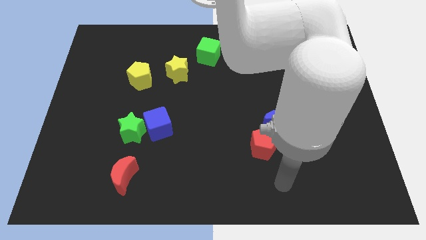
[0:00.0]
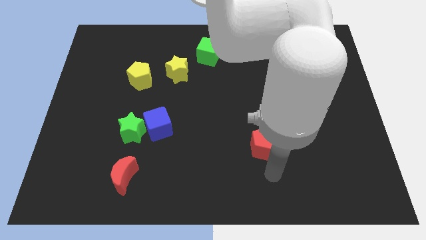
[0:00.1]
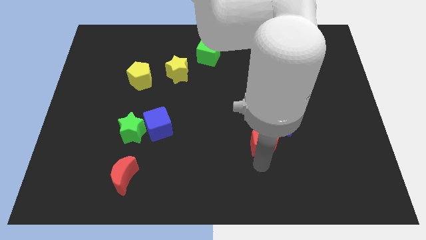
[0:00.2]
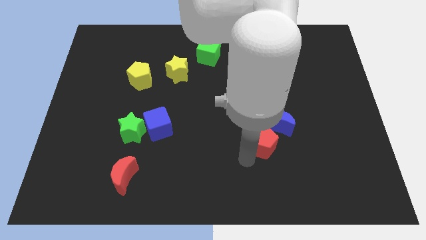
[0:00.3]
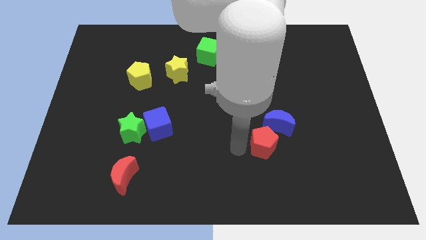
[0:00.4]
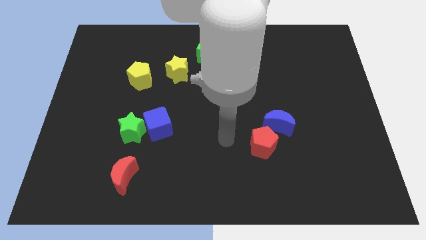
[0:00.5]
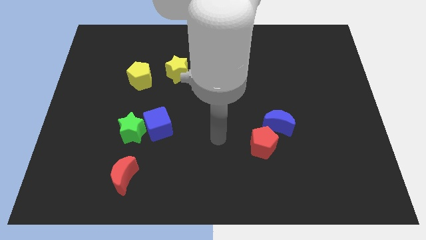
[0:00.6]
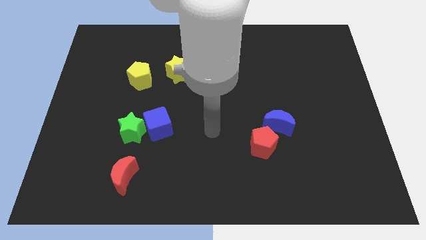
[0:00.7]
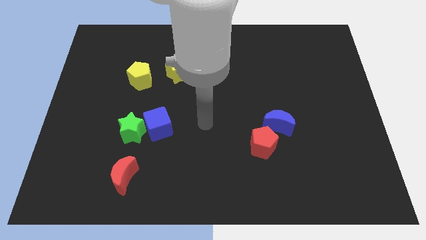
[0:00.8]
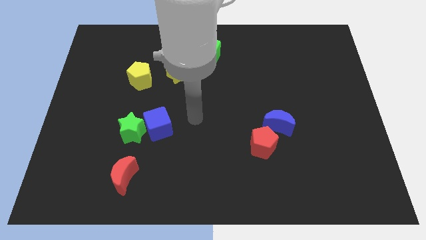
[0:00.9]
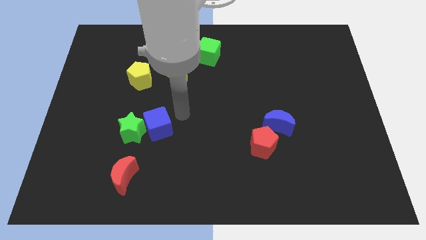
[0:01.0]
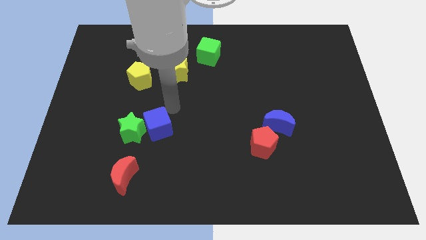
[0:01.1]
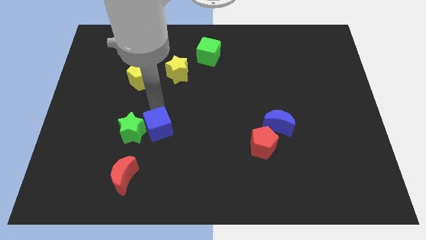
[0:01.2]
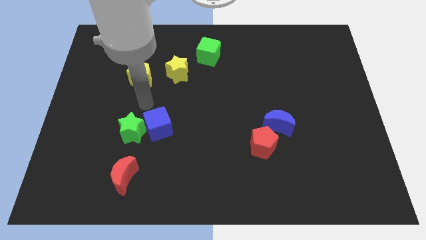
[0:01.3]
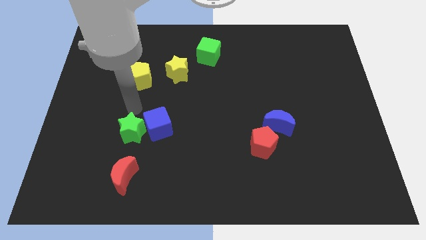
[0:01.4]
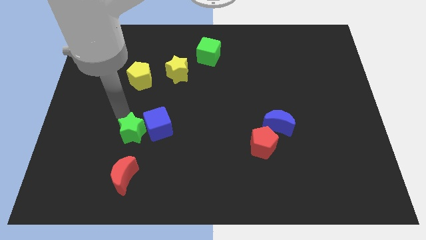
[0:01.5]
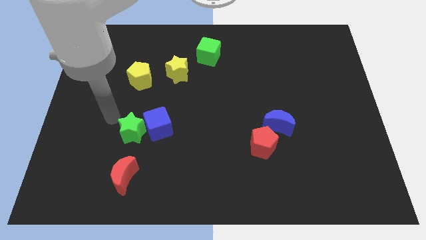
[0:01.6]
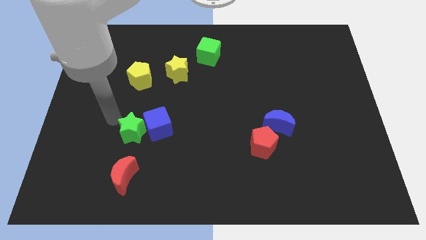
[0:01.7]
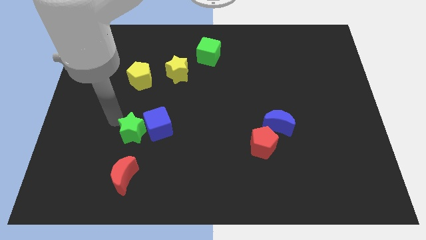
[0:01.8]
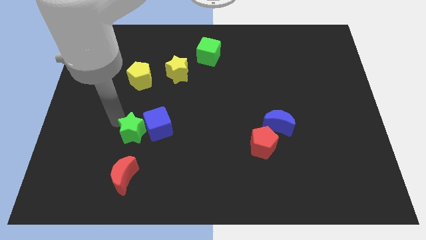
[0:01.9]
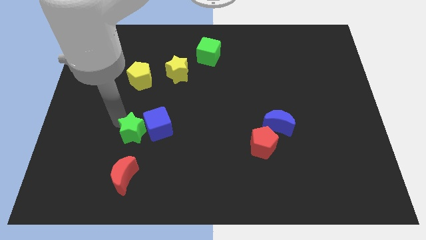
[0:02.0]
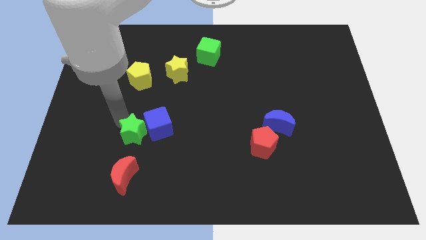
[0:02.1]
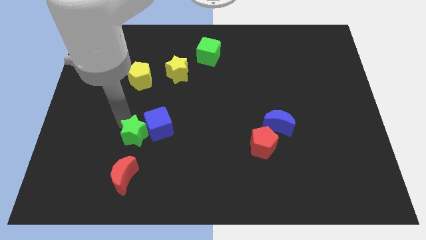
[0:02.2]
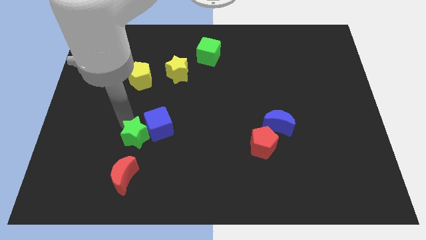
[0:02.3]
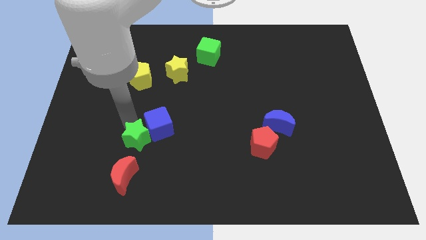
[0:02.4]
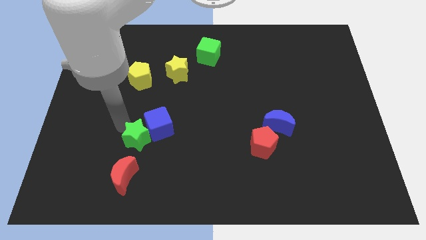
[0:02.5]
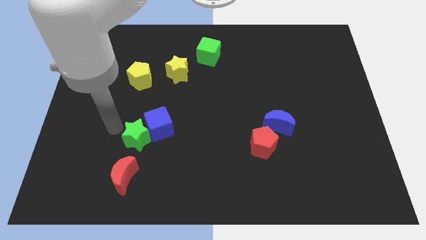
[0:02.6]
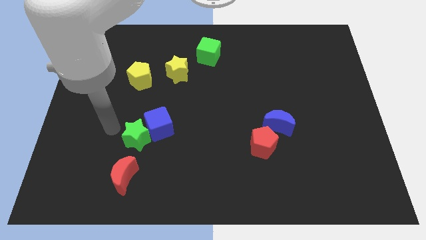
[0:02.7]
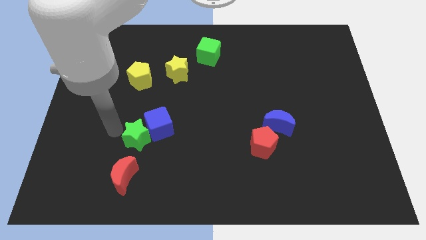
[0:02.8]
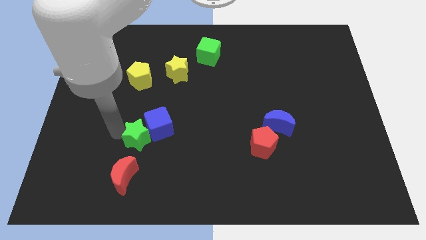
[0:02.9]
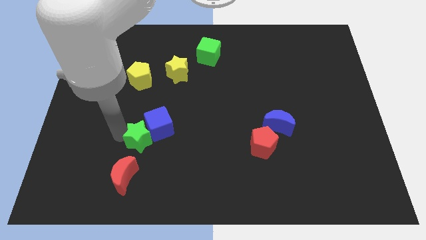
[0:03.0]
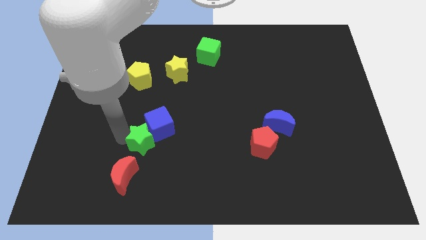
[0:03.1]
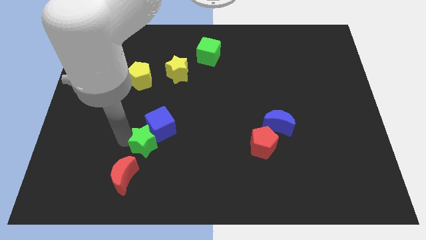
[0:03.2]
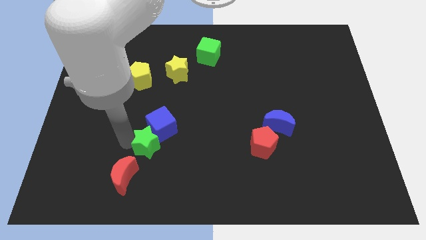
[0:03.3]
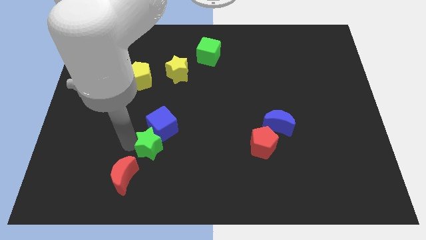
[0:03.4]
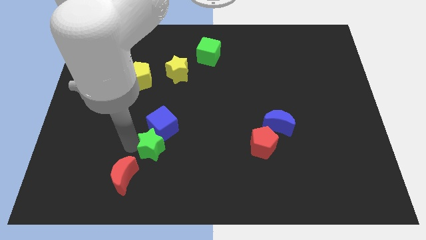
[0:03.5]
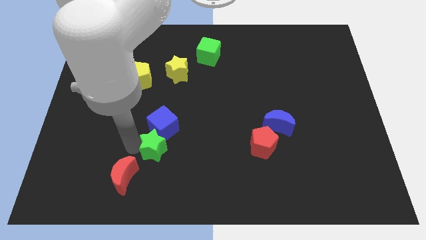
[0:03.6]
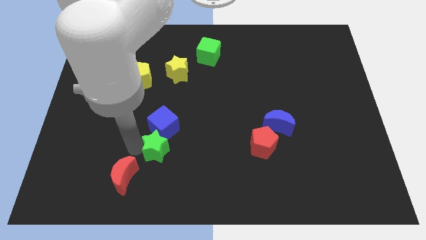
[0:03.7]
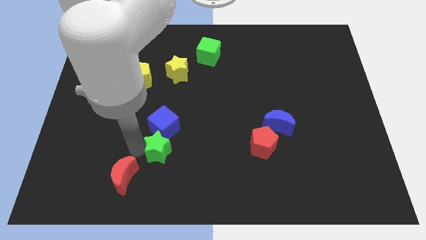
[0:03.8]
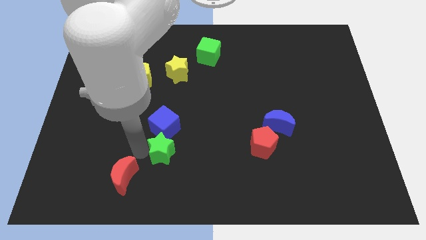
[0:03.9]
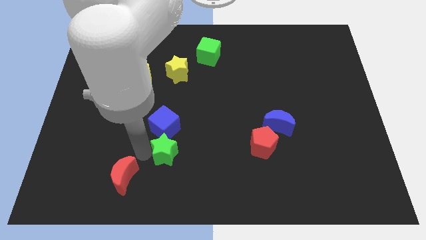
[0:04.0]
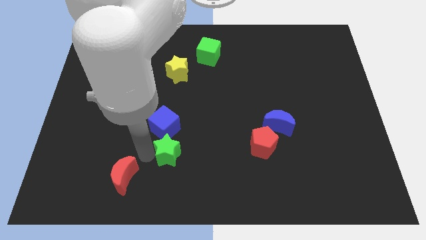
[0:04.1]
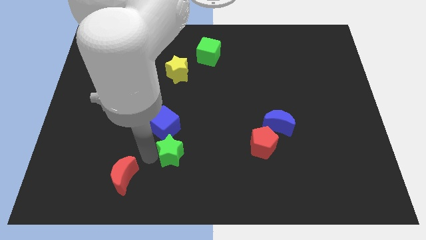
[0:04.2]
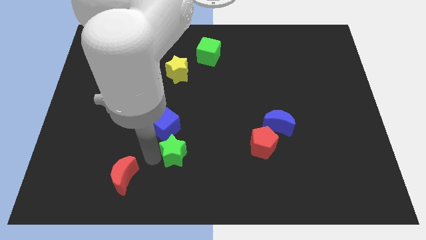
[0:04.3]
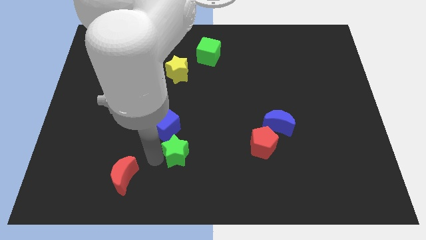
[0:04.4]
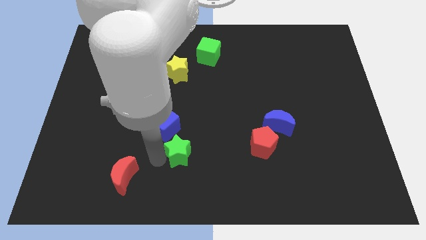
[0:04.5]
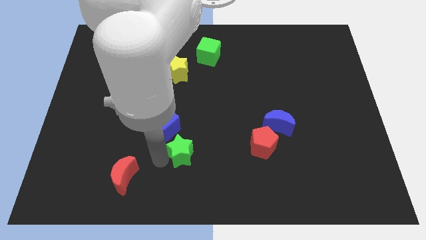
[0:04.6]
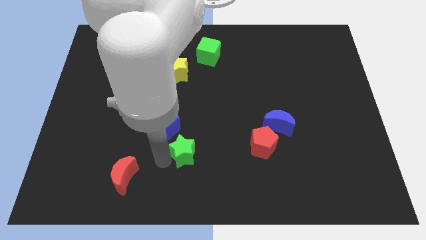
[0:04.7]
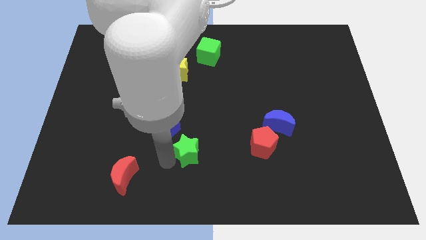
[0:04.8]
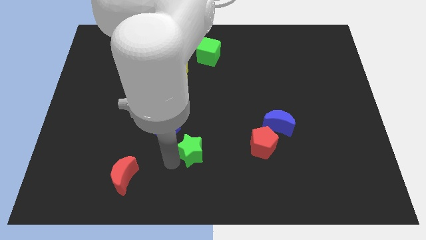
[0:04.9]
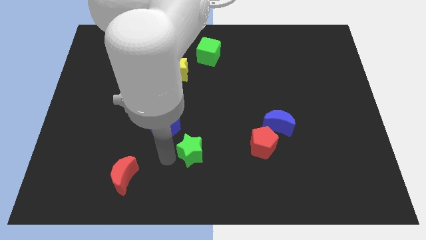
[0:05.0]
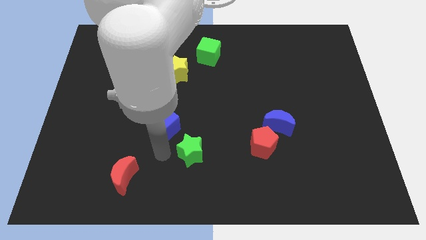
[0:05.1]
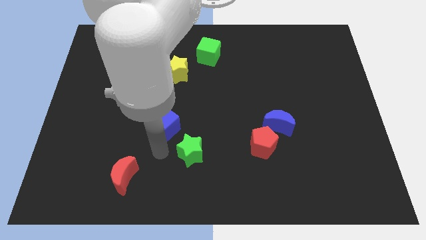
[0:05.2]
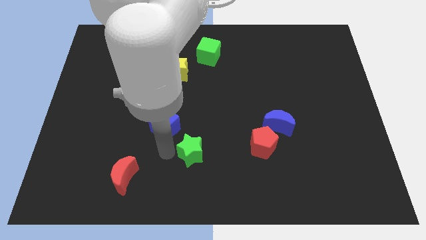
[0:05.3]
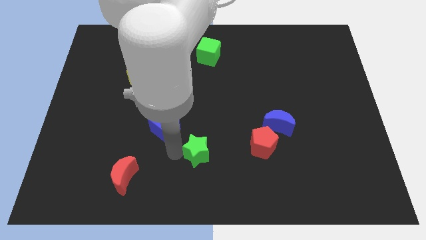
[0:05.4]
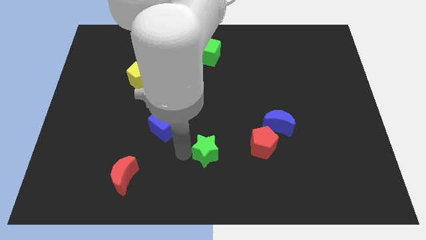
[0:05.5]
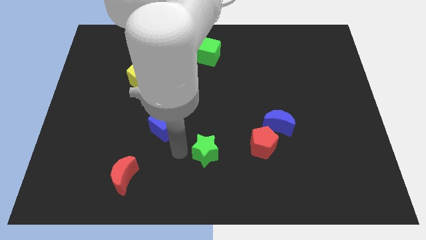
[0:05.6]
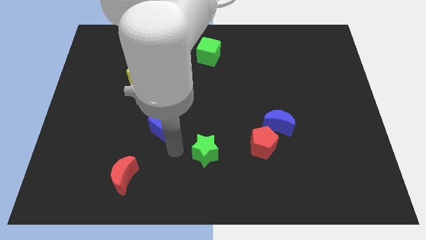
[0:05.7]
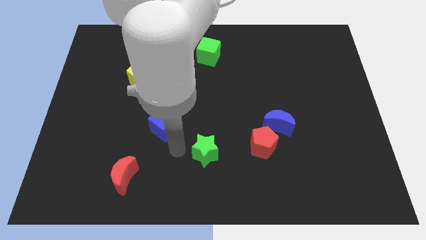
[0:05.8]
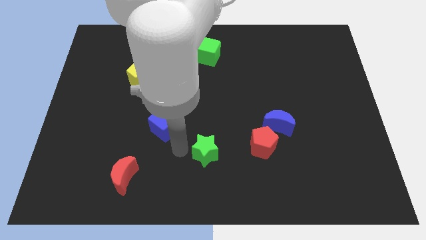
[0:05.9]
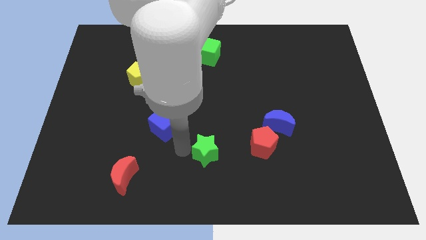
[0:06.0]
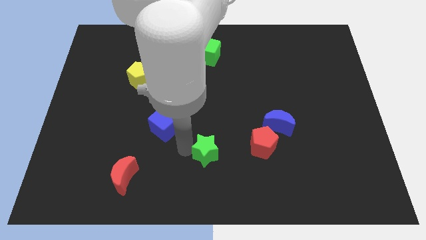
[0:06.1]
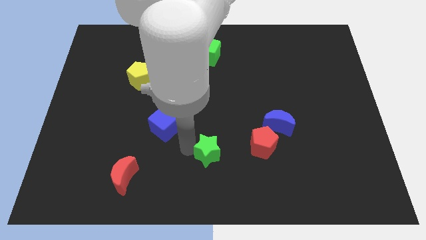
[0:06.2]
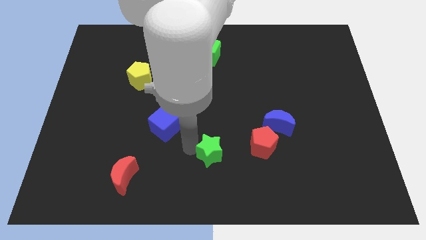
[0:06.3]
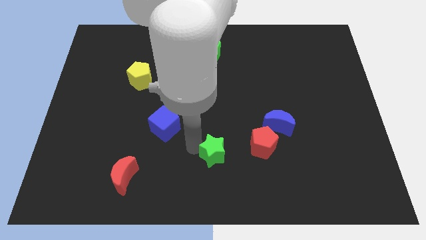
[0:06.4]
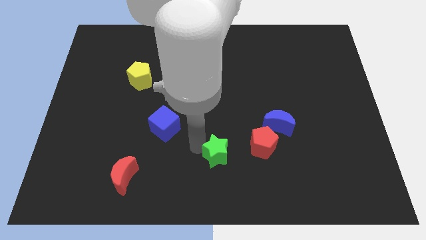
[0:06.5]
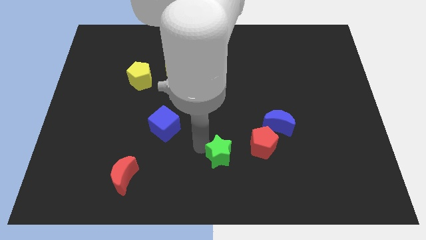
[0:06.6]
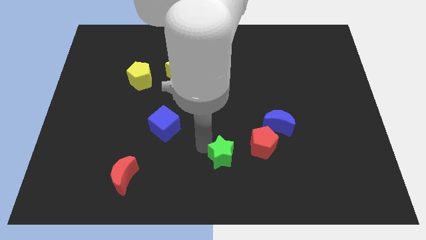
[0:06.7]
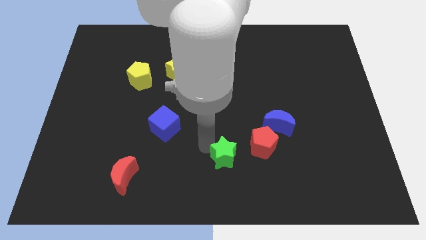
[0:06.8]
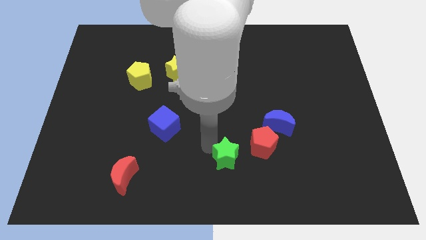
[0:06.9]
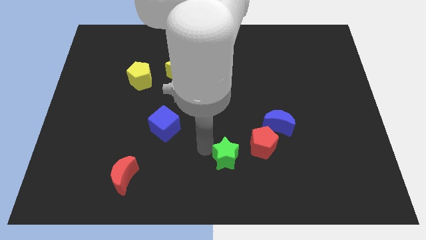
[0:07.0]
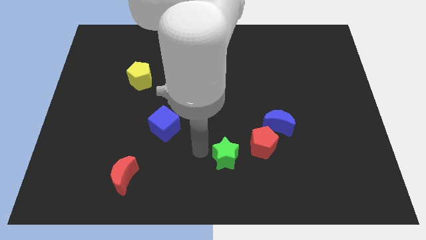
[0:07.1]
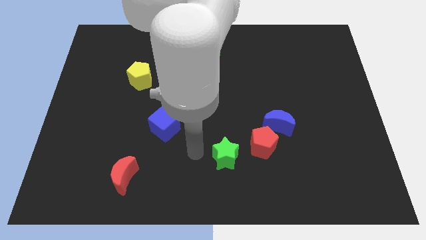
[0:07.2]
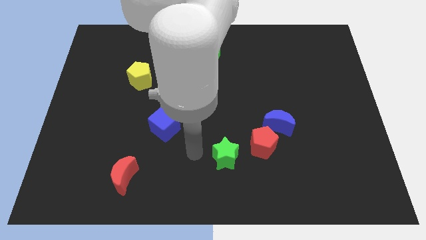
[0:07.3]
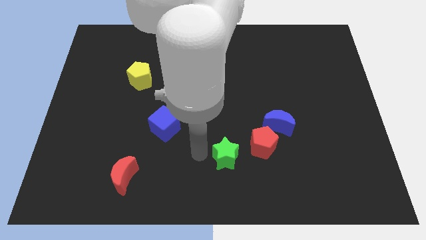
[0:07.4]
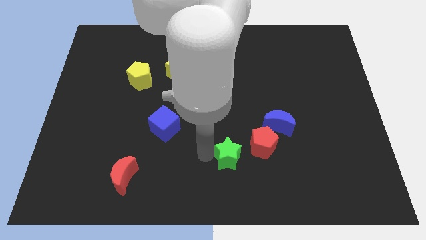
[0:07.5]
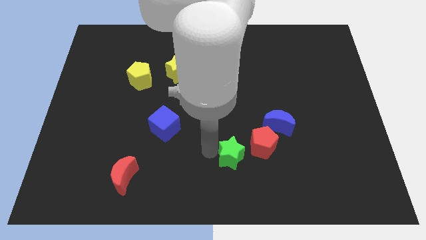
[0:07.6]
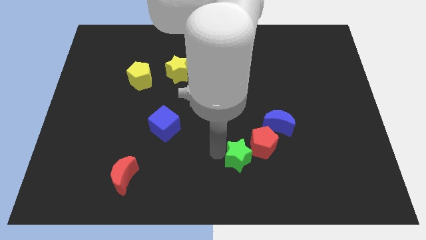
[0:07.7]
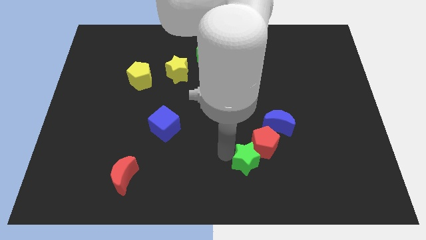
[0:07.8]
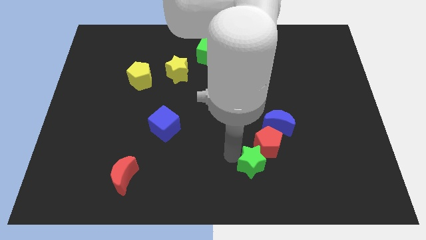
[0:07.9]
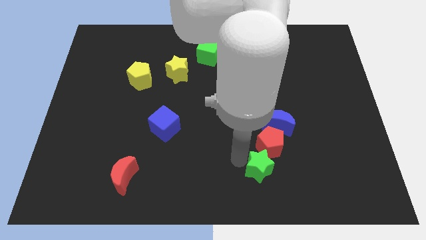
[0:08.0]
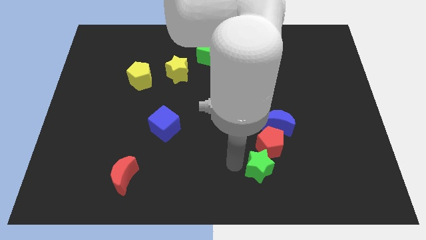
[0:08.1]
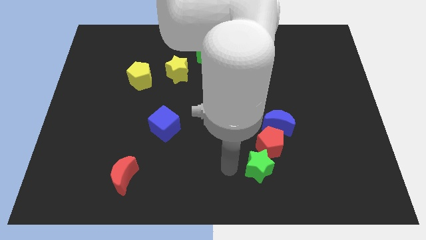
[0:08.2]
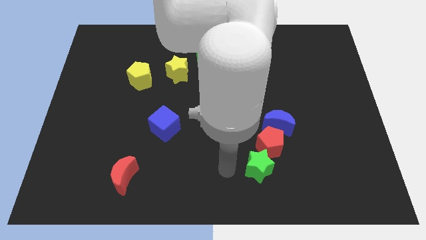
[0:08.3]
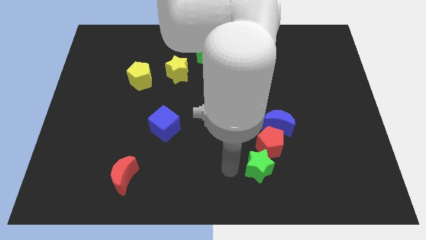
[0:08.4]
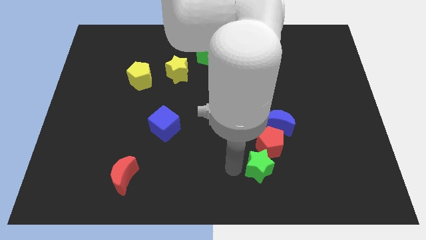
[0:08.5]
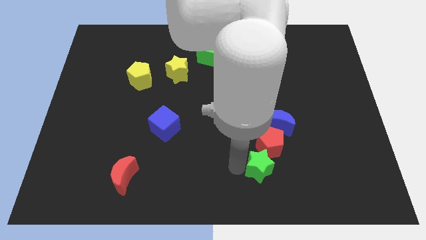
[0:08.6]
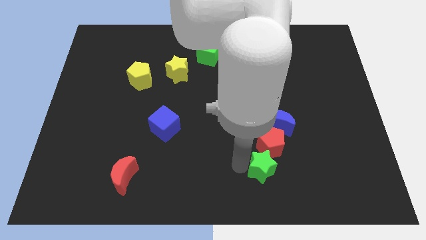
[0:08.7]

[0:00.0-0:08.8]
push the green star below the blue moon
